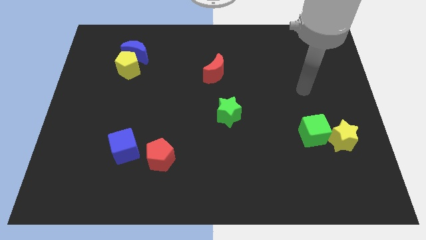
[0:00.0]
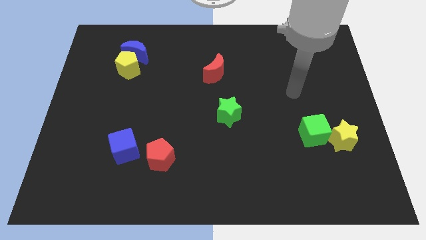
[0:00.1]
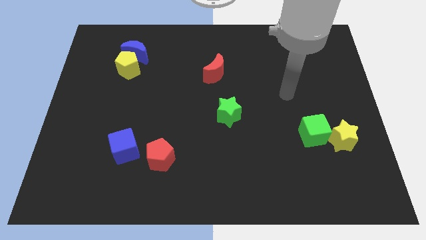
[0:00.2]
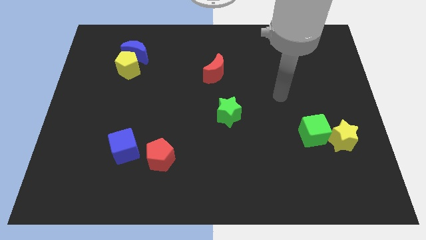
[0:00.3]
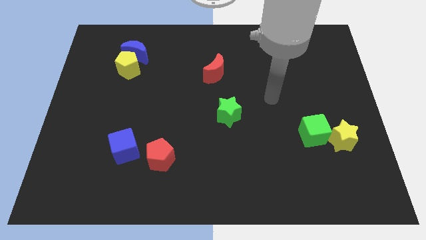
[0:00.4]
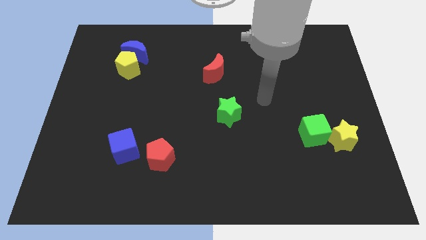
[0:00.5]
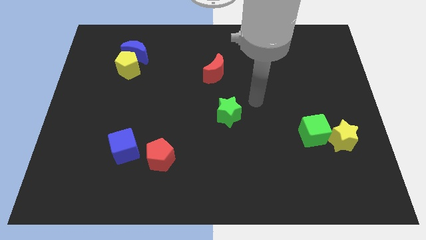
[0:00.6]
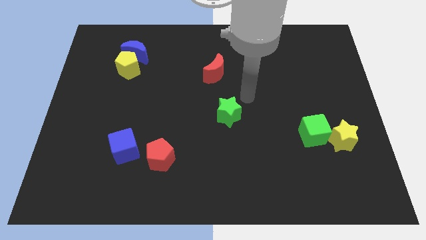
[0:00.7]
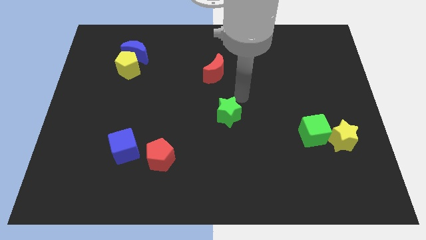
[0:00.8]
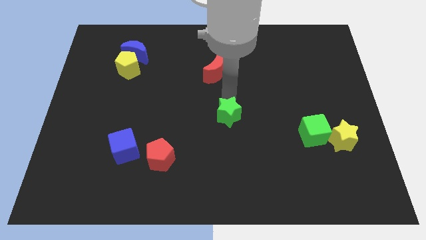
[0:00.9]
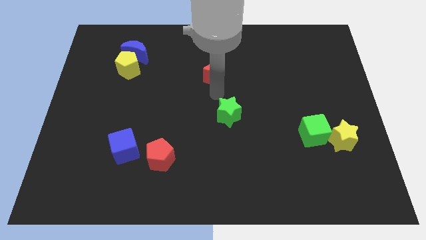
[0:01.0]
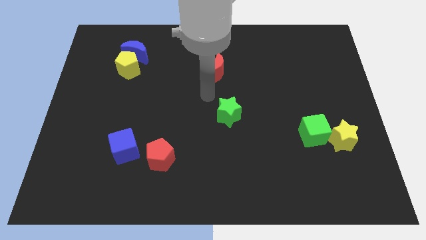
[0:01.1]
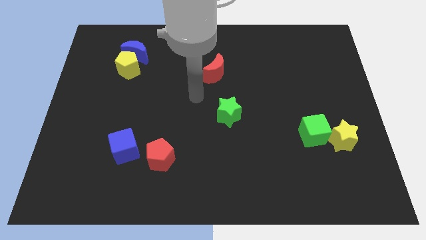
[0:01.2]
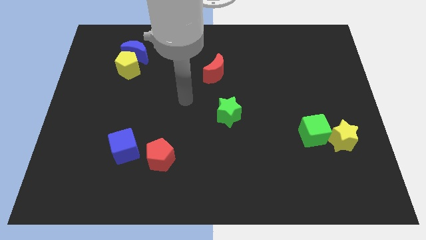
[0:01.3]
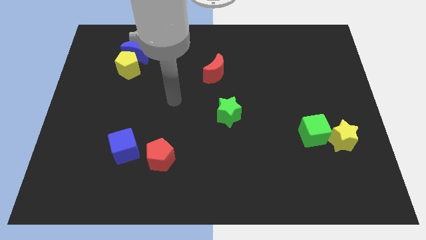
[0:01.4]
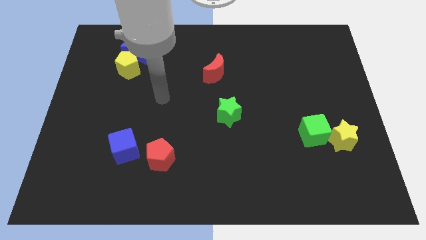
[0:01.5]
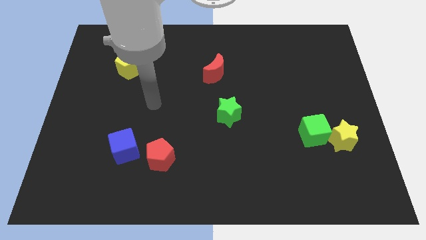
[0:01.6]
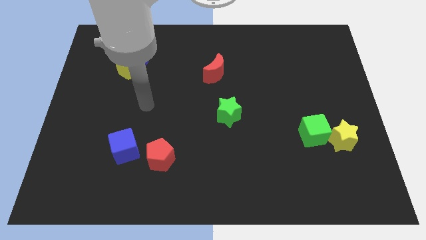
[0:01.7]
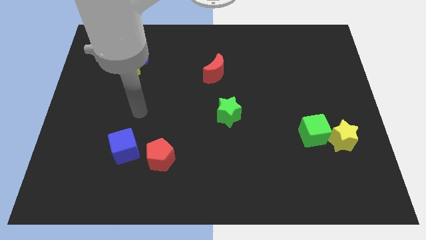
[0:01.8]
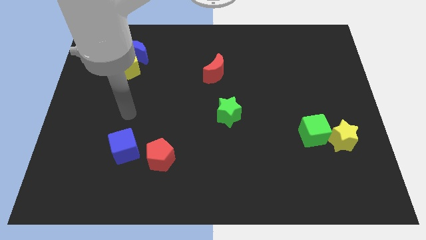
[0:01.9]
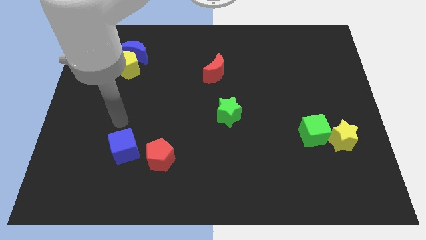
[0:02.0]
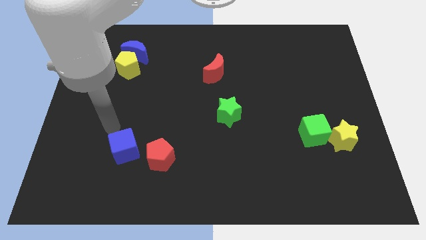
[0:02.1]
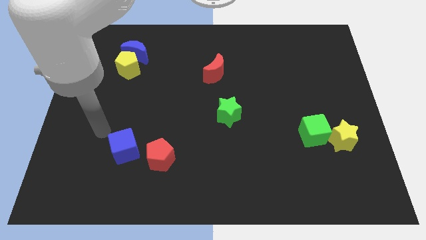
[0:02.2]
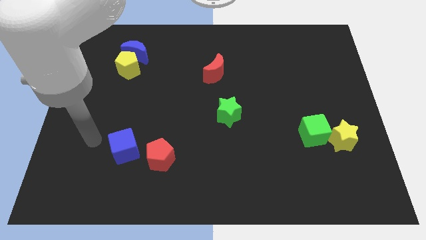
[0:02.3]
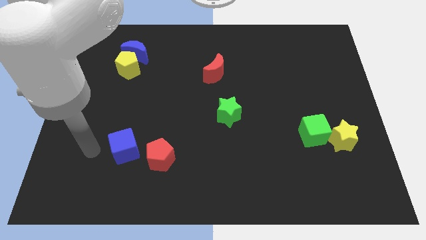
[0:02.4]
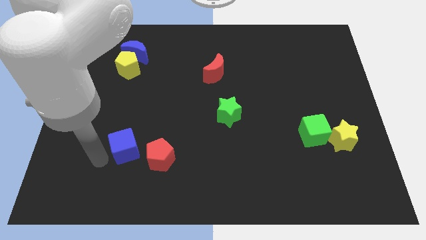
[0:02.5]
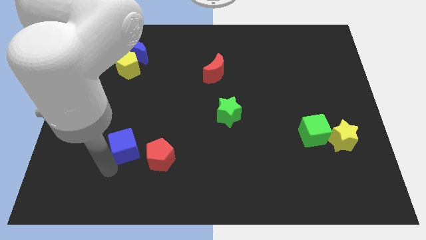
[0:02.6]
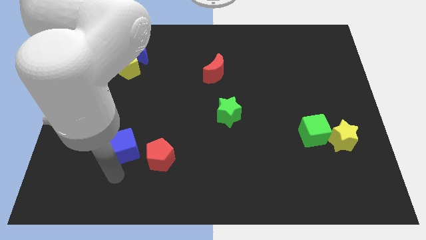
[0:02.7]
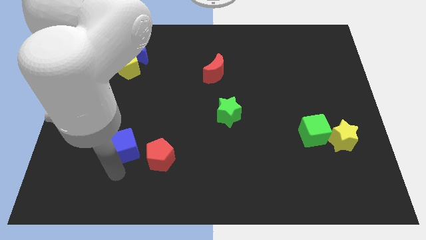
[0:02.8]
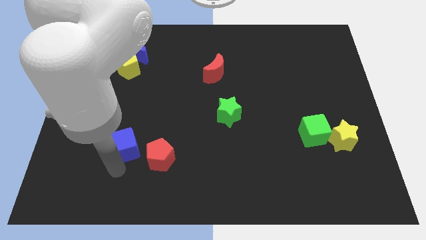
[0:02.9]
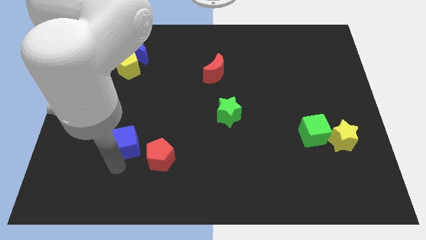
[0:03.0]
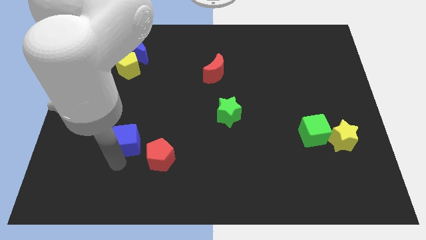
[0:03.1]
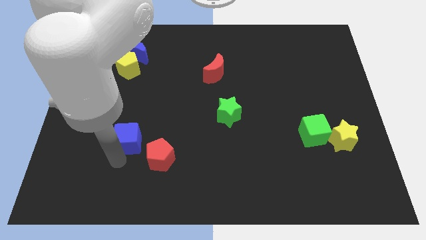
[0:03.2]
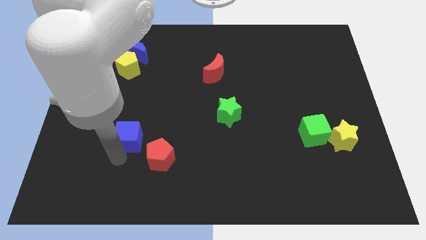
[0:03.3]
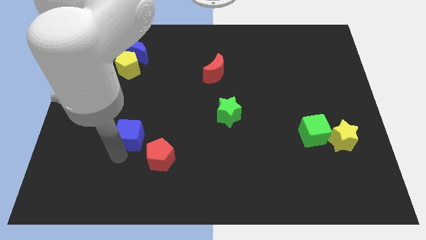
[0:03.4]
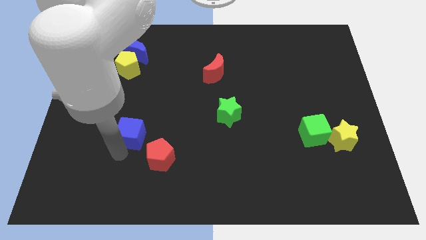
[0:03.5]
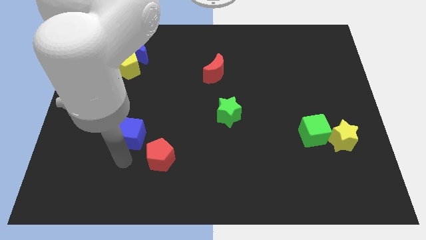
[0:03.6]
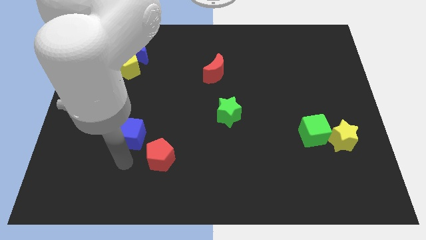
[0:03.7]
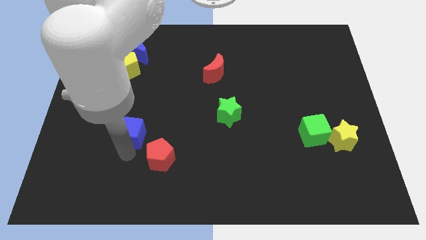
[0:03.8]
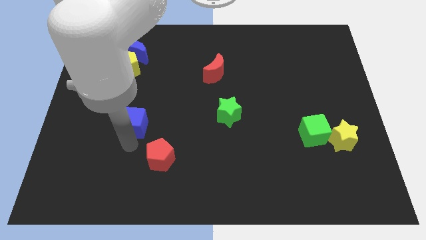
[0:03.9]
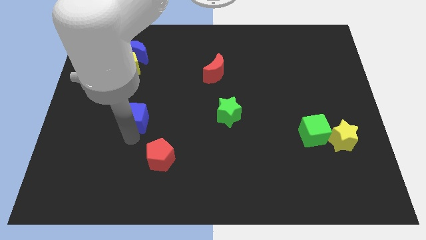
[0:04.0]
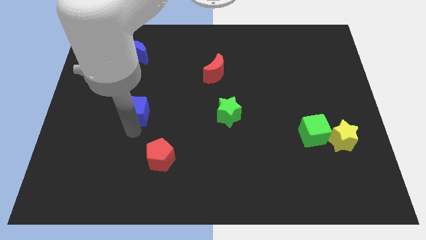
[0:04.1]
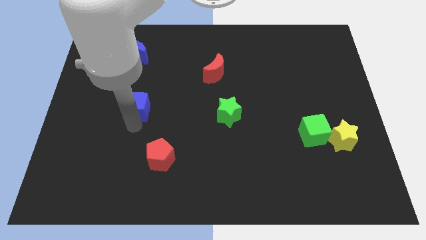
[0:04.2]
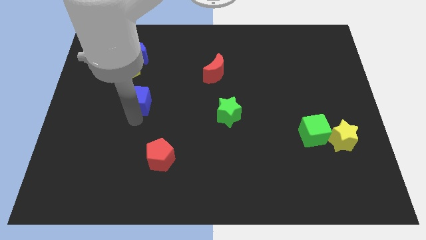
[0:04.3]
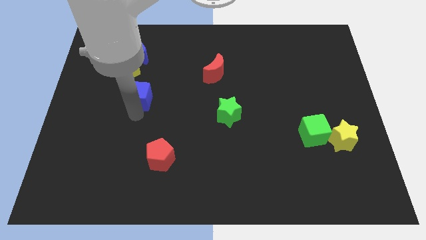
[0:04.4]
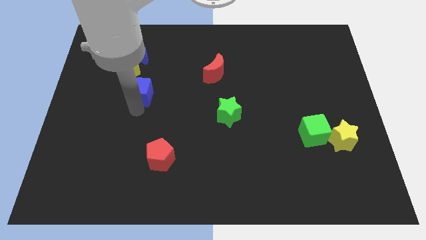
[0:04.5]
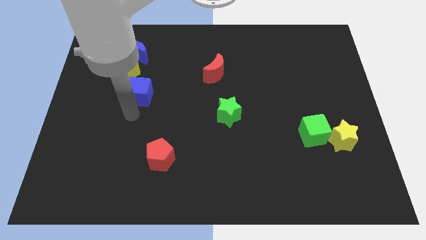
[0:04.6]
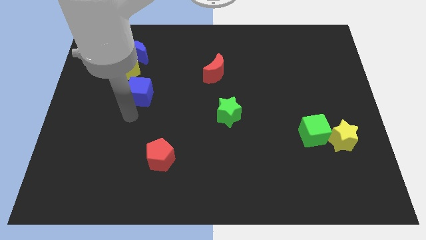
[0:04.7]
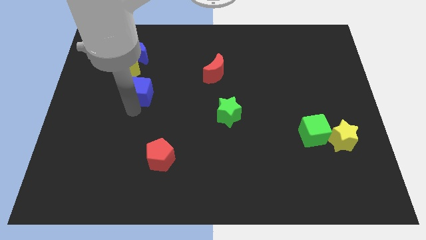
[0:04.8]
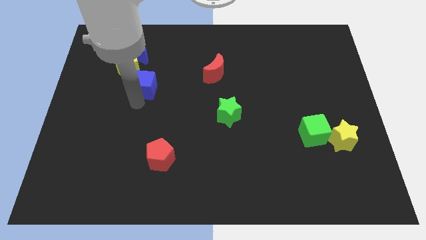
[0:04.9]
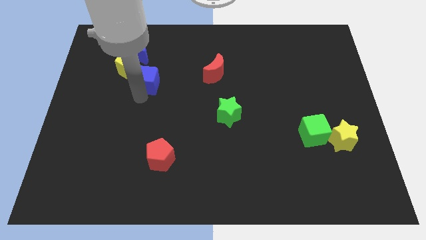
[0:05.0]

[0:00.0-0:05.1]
slide the blue cube diagonally down and to the right of the blue moon
